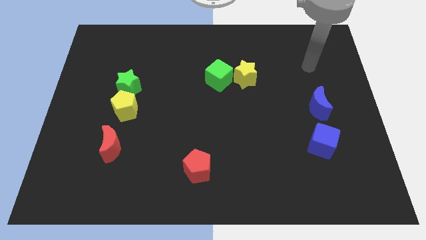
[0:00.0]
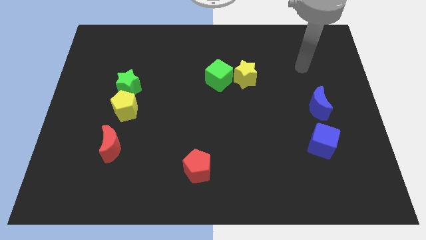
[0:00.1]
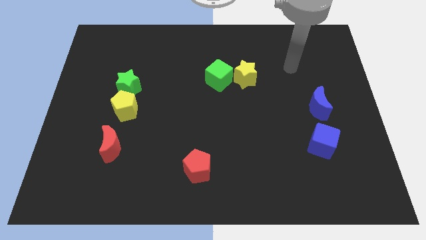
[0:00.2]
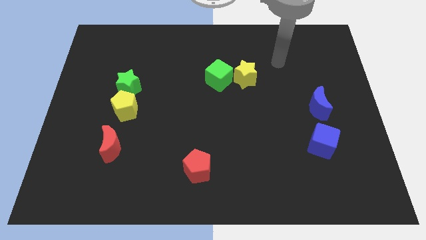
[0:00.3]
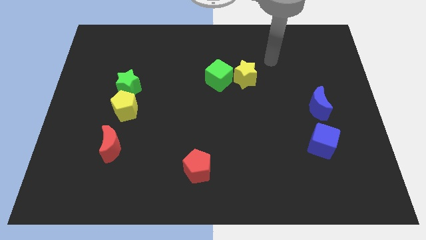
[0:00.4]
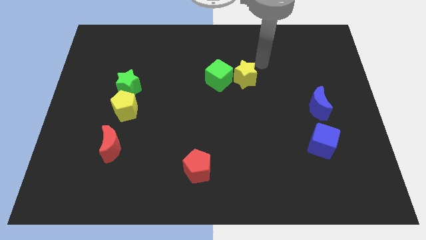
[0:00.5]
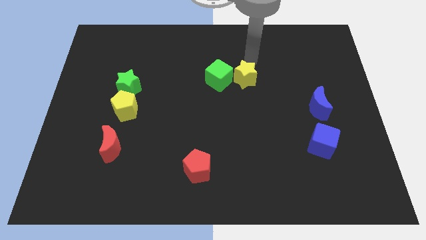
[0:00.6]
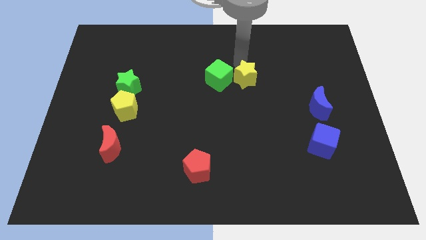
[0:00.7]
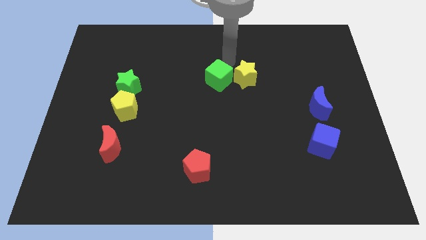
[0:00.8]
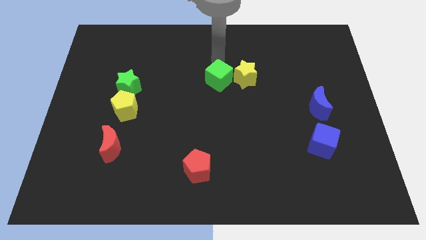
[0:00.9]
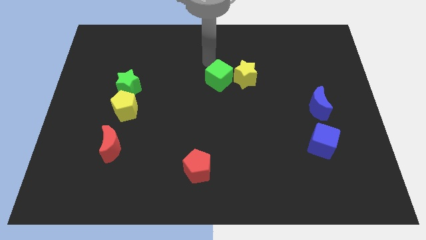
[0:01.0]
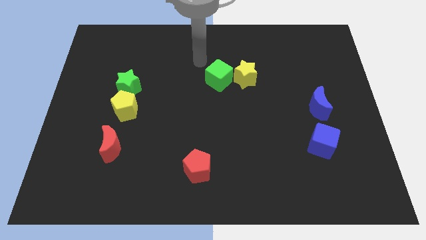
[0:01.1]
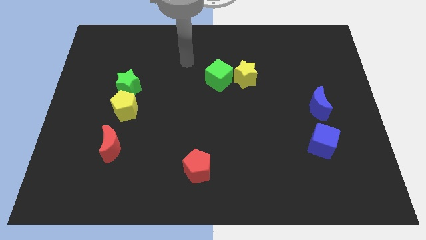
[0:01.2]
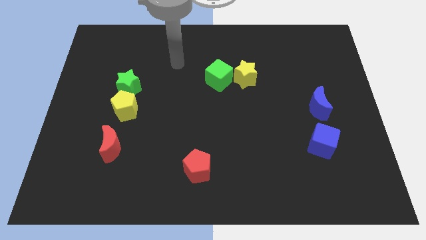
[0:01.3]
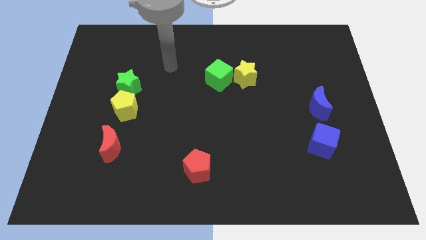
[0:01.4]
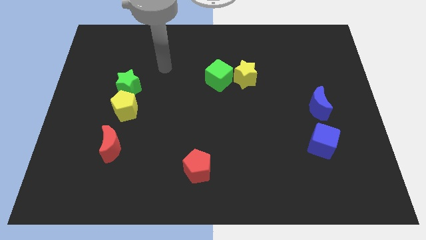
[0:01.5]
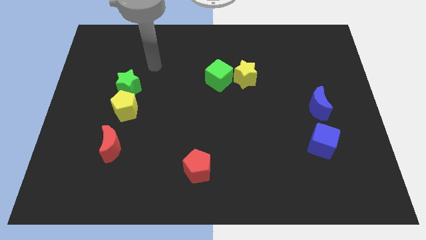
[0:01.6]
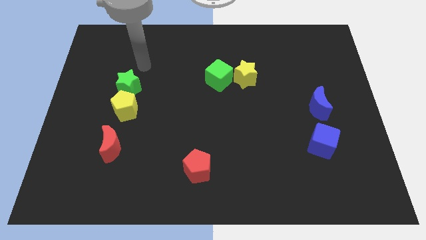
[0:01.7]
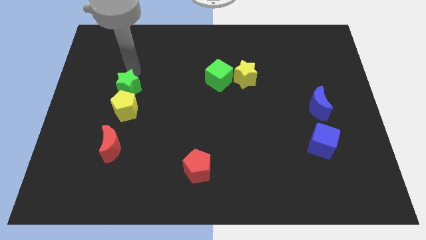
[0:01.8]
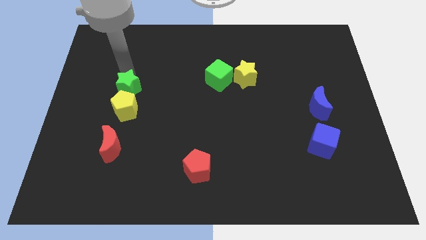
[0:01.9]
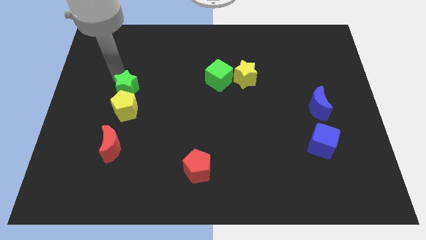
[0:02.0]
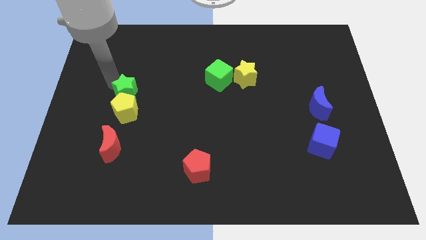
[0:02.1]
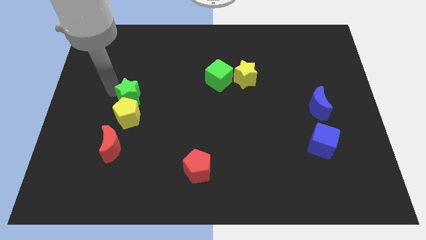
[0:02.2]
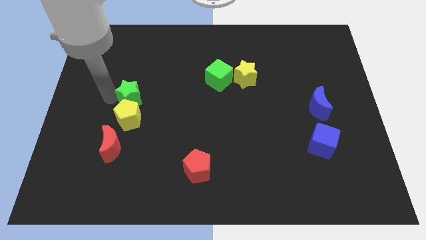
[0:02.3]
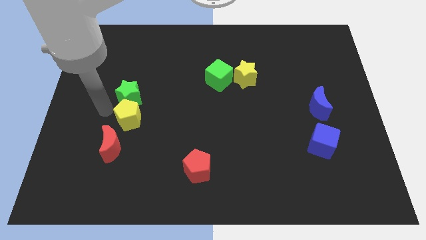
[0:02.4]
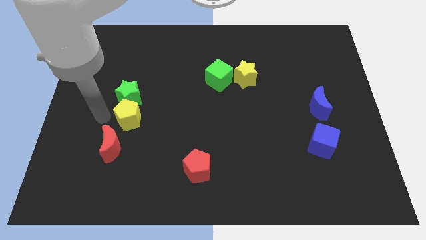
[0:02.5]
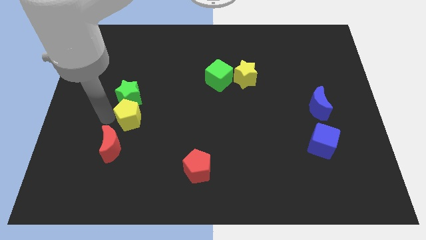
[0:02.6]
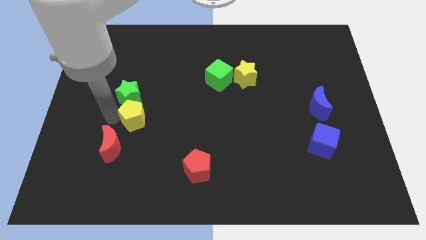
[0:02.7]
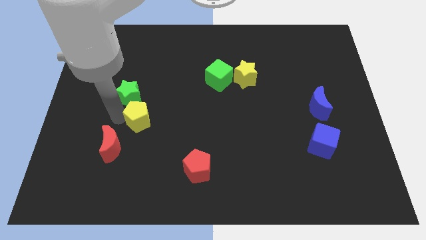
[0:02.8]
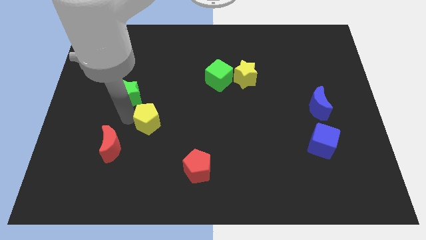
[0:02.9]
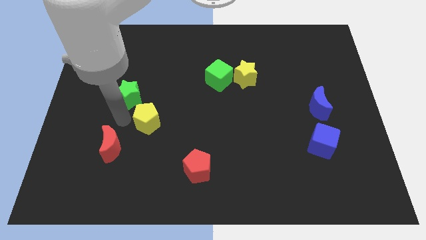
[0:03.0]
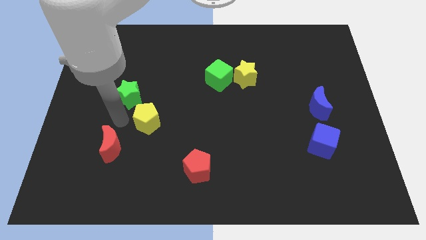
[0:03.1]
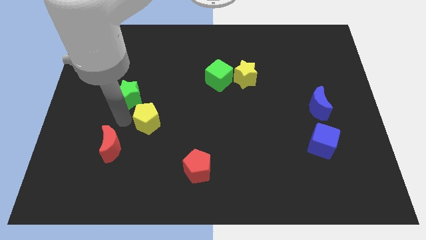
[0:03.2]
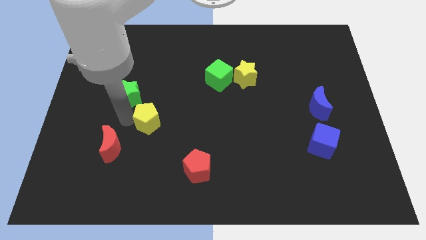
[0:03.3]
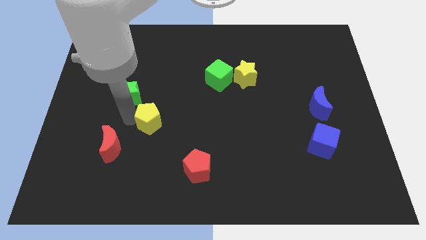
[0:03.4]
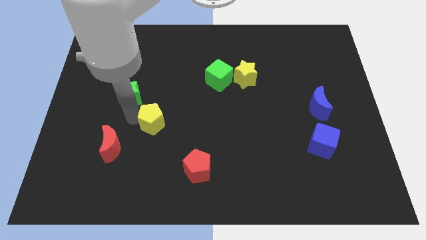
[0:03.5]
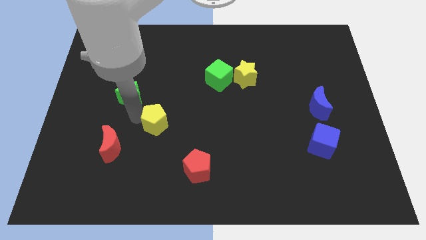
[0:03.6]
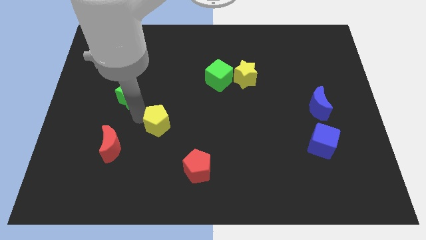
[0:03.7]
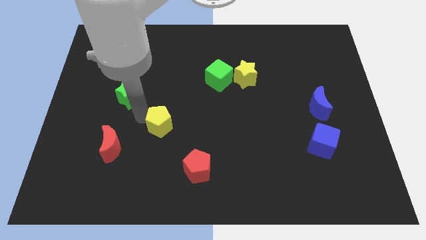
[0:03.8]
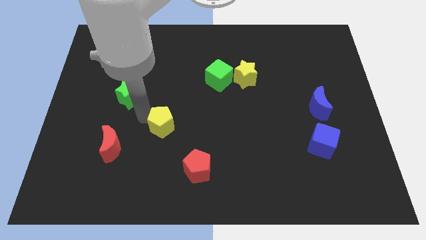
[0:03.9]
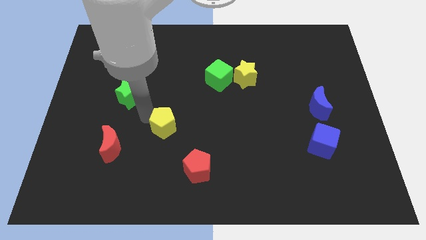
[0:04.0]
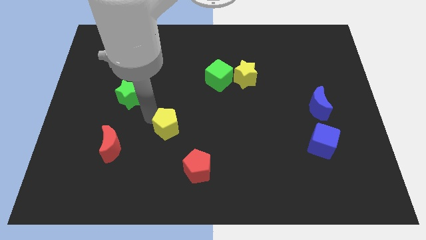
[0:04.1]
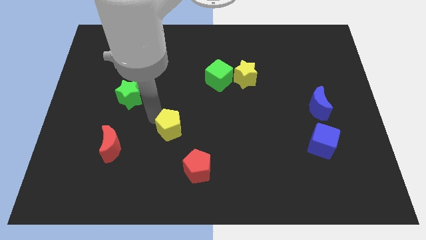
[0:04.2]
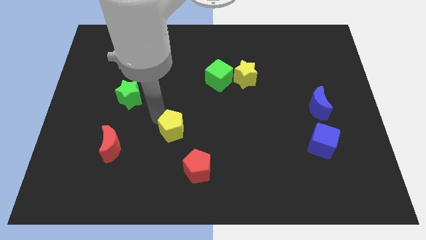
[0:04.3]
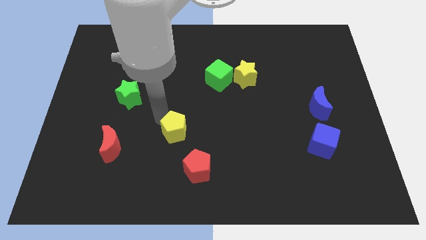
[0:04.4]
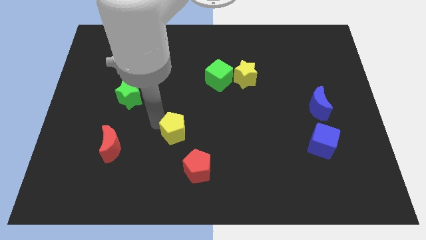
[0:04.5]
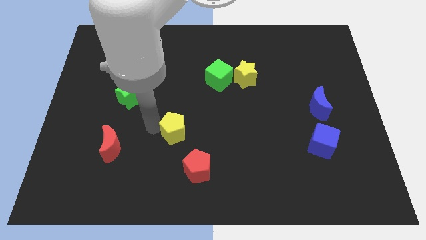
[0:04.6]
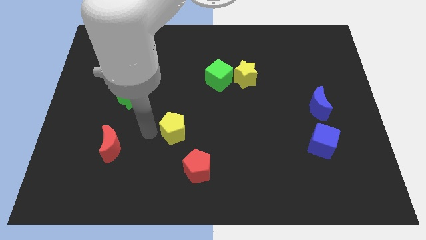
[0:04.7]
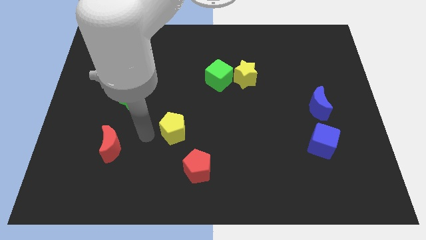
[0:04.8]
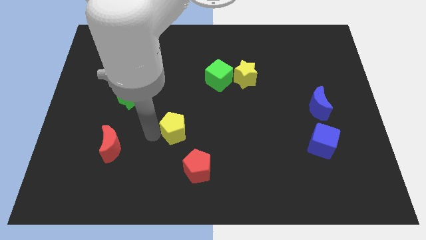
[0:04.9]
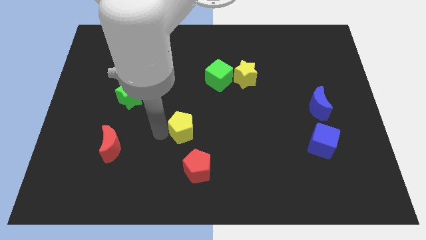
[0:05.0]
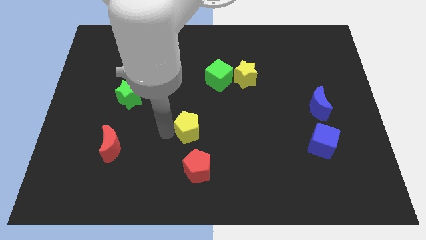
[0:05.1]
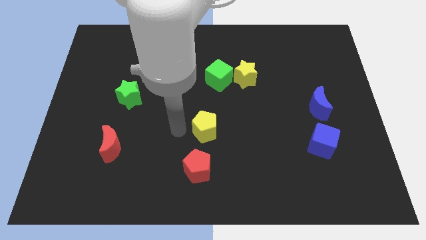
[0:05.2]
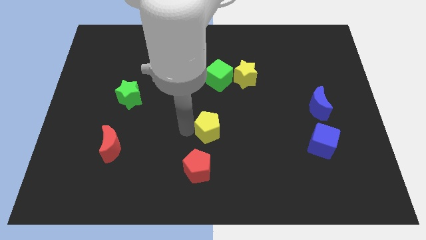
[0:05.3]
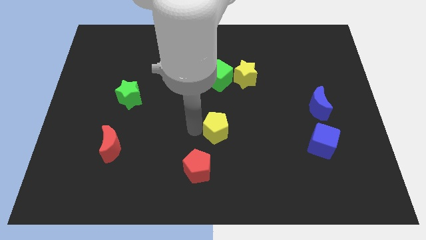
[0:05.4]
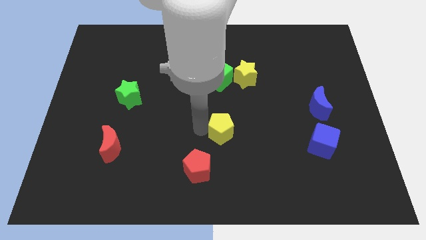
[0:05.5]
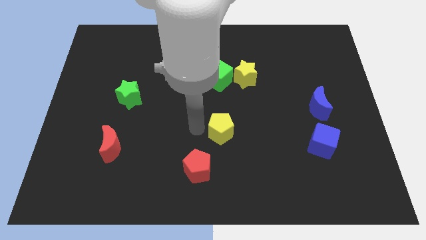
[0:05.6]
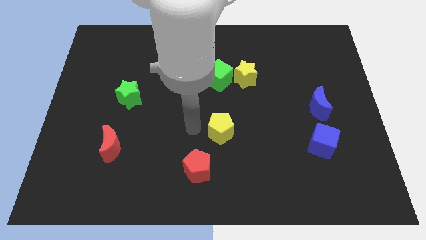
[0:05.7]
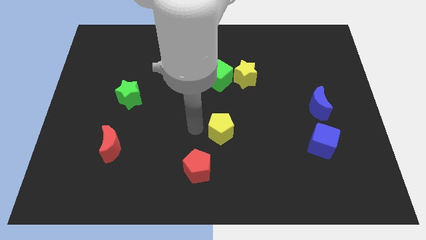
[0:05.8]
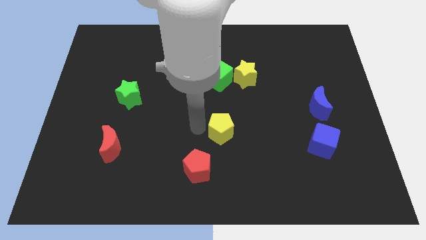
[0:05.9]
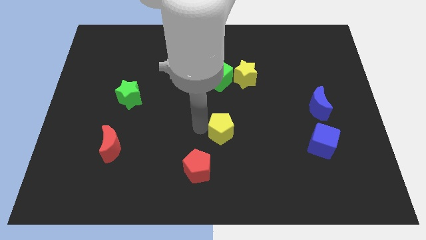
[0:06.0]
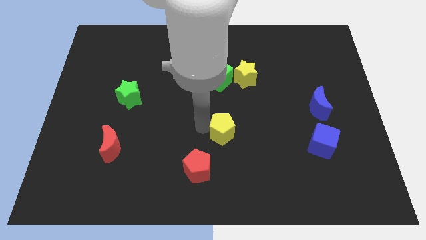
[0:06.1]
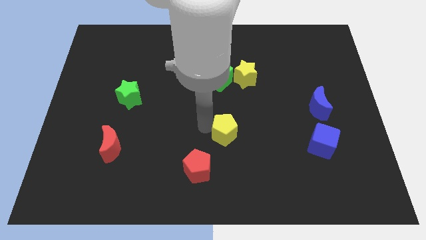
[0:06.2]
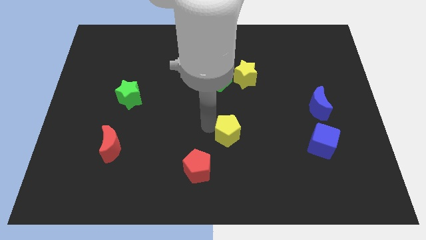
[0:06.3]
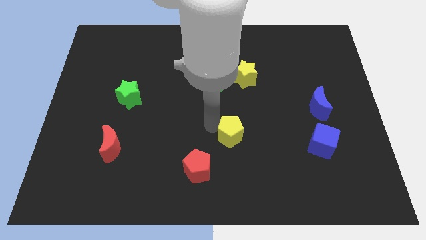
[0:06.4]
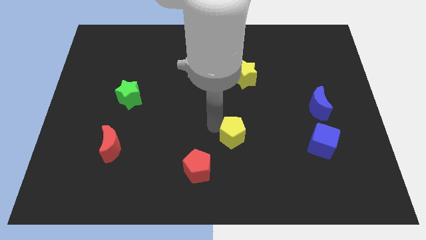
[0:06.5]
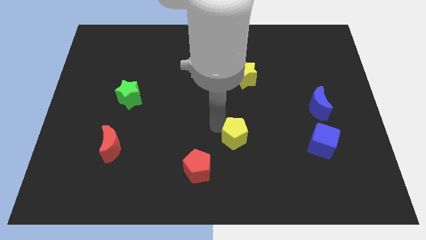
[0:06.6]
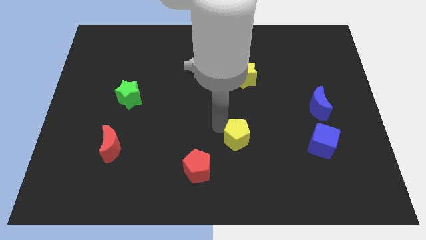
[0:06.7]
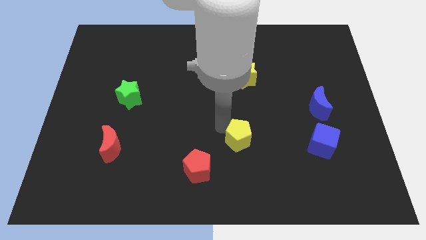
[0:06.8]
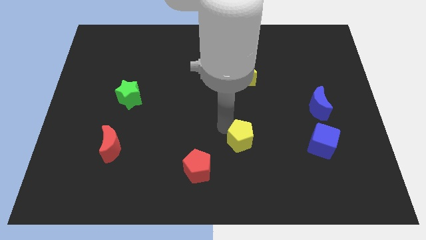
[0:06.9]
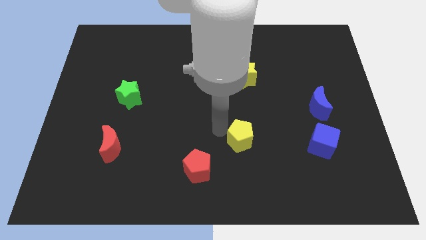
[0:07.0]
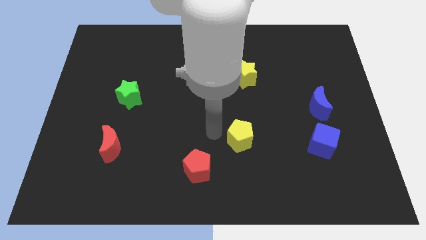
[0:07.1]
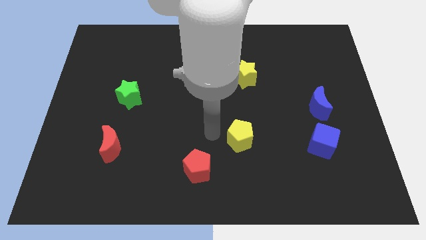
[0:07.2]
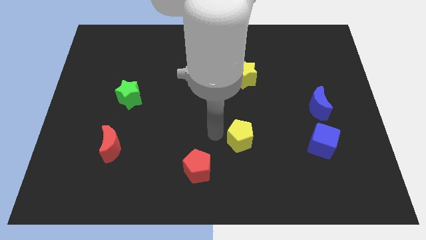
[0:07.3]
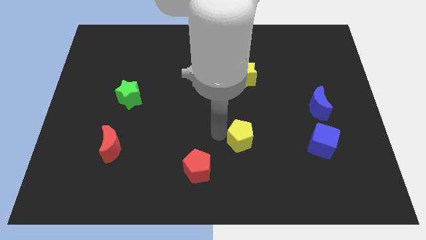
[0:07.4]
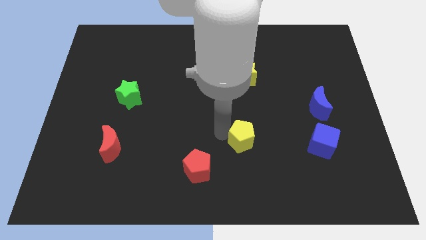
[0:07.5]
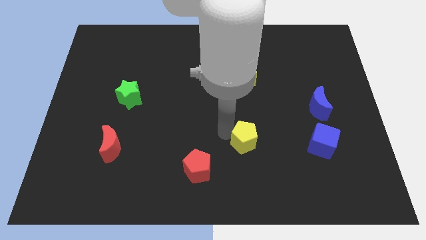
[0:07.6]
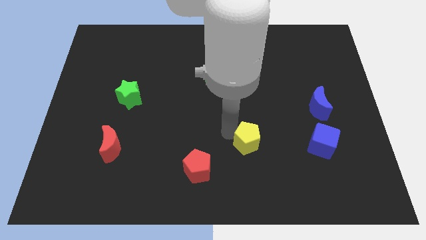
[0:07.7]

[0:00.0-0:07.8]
put the yellow pentagon to the left of the blue cube

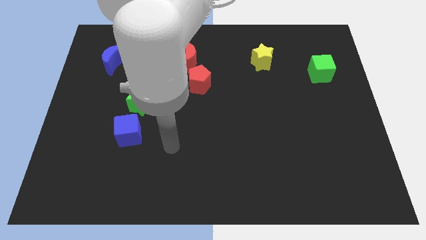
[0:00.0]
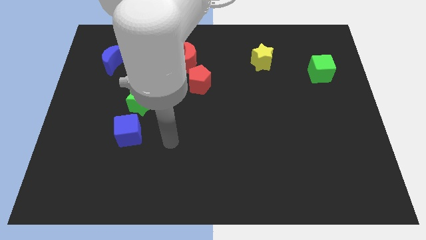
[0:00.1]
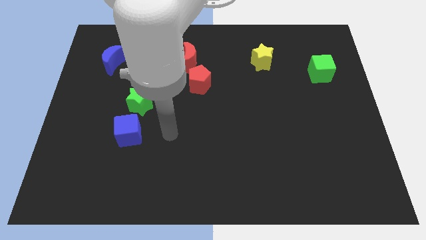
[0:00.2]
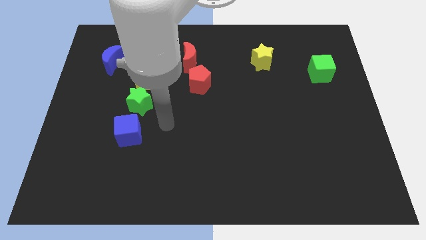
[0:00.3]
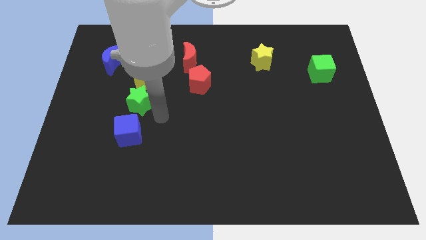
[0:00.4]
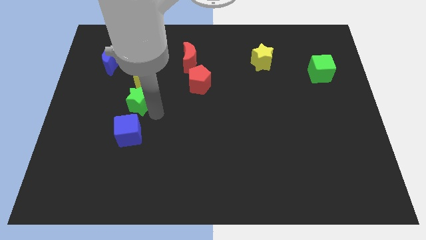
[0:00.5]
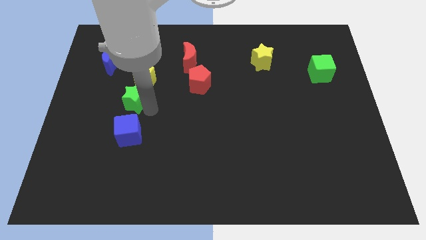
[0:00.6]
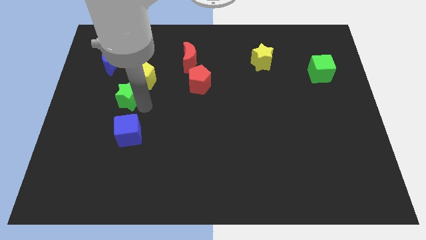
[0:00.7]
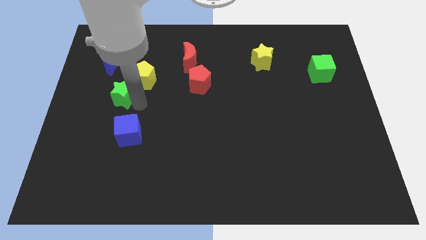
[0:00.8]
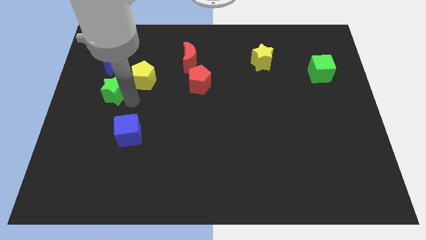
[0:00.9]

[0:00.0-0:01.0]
push the green star left of the yellow pentagon
